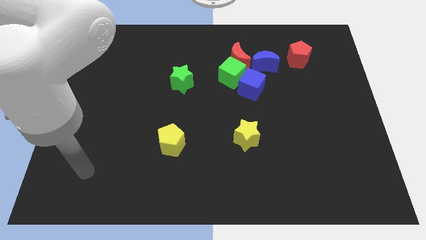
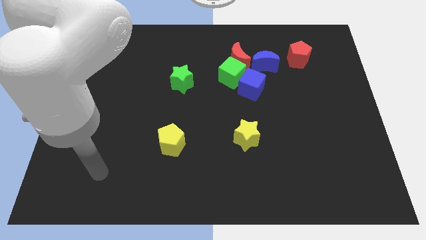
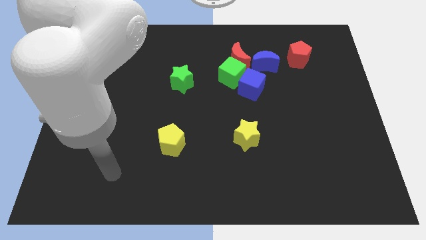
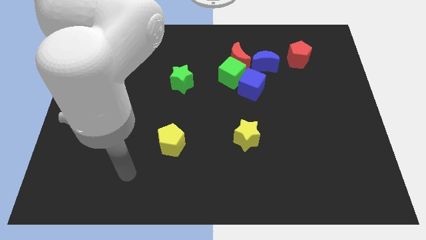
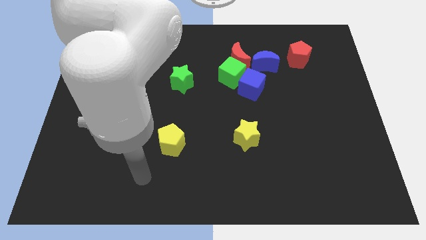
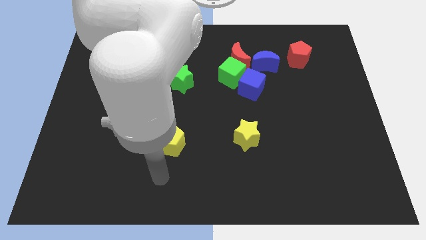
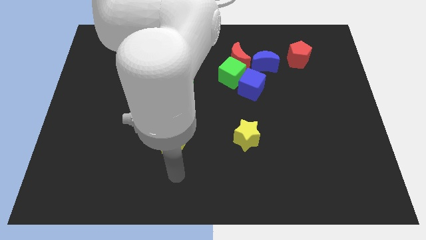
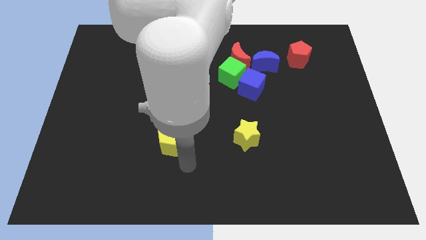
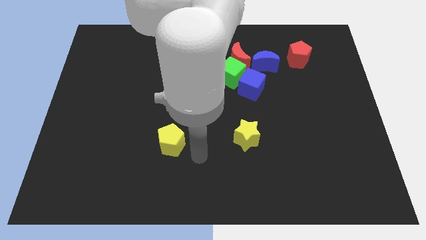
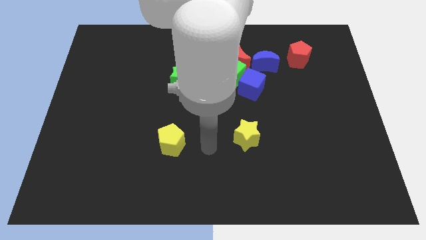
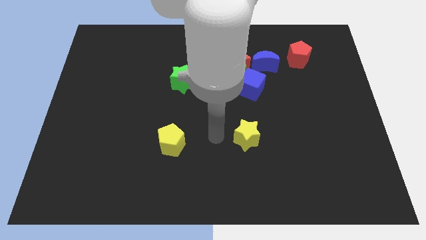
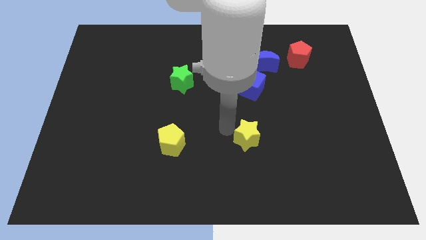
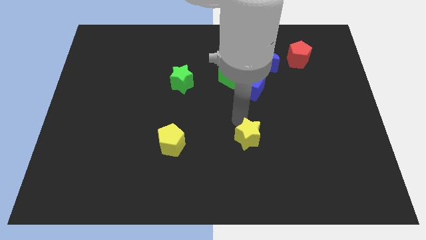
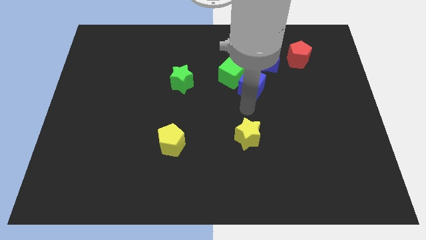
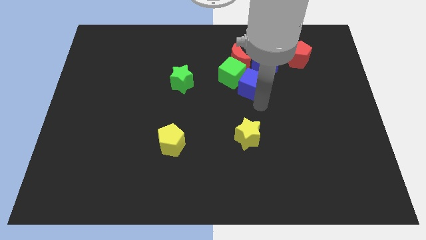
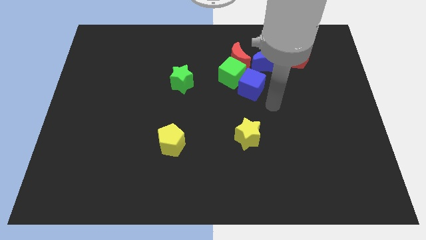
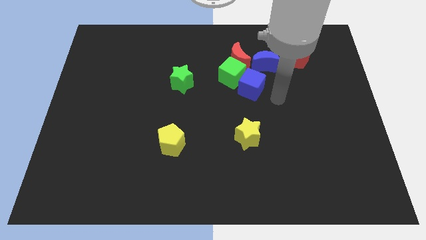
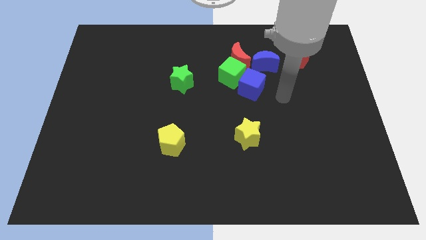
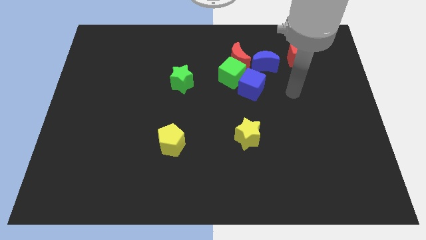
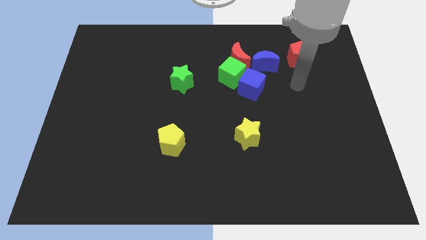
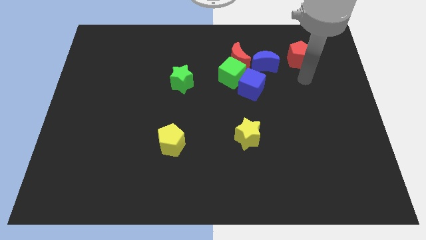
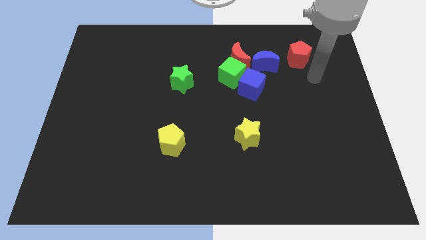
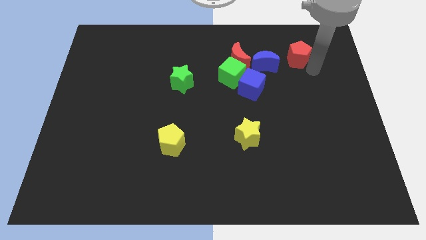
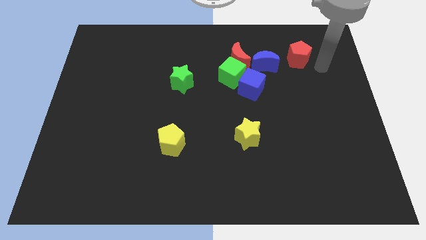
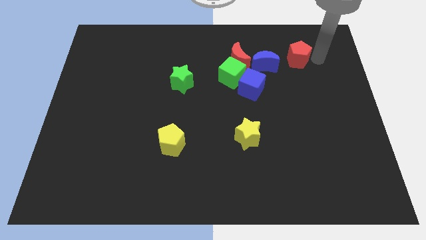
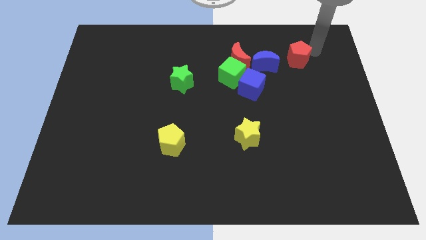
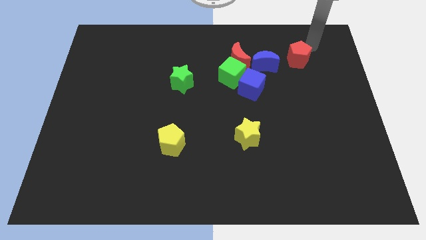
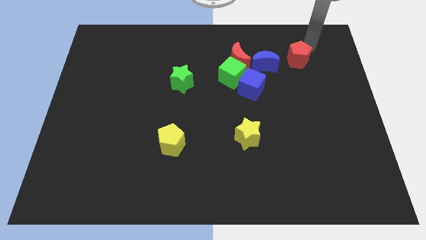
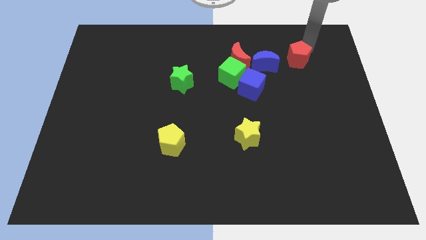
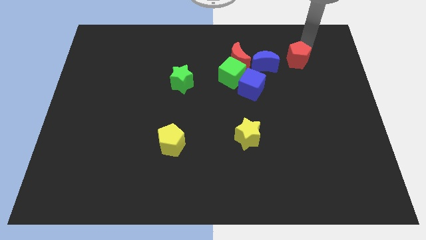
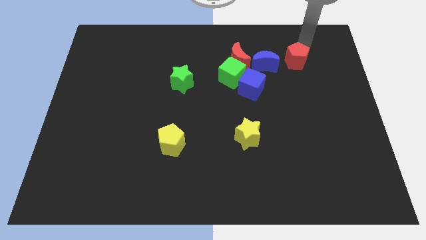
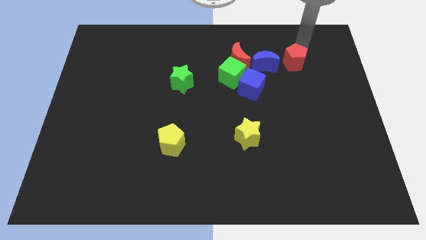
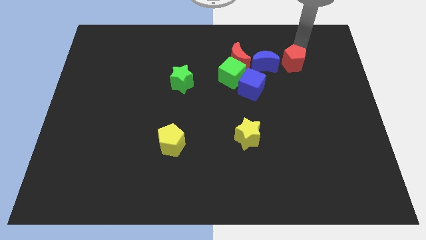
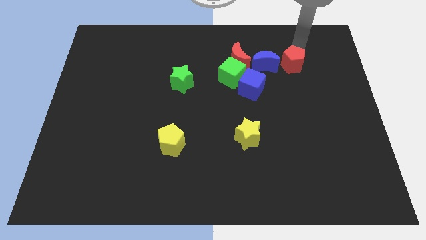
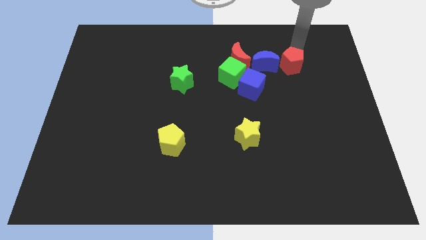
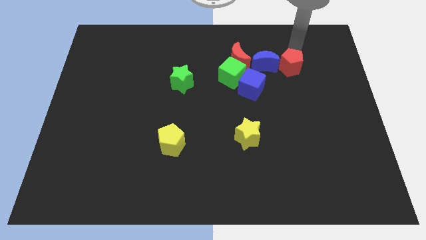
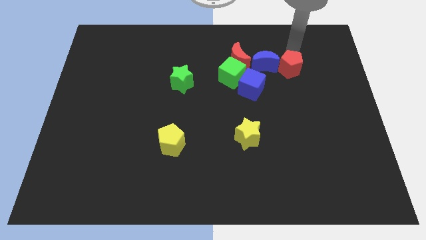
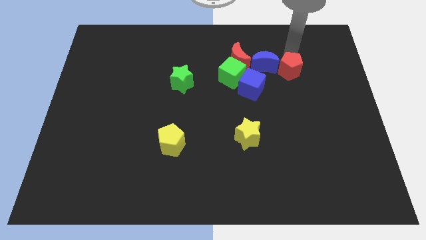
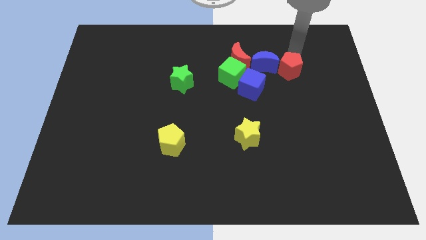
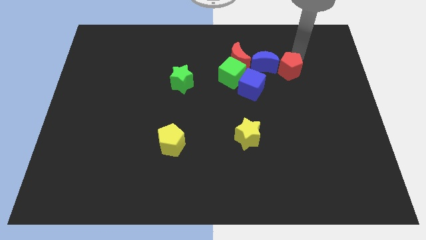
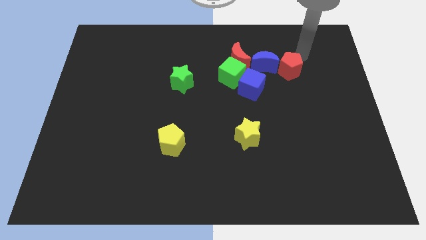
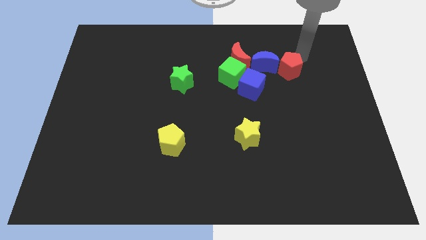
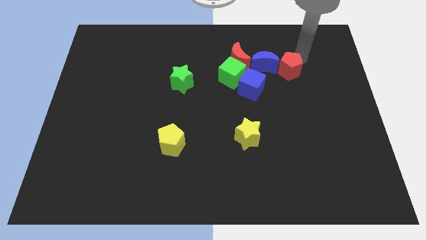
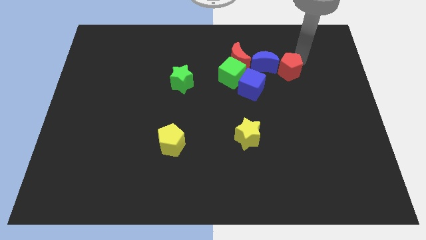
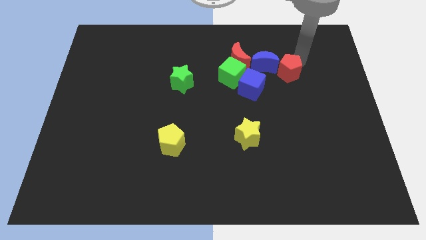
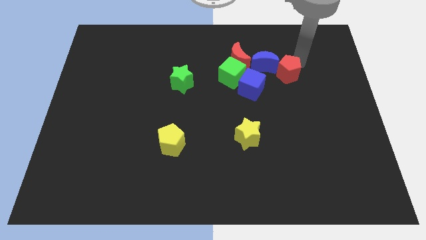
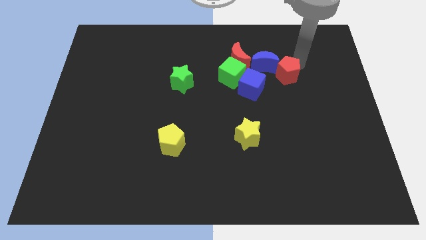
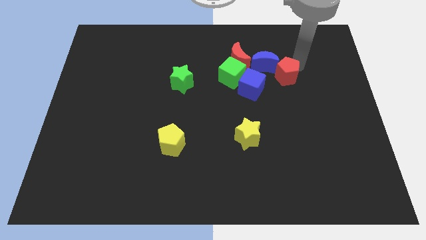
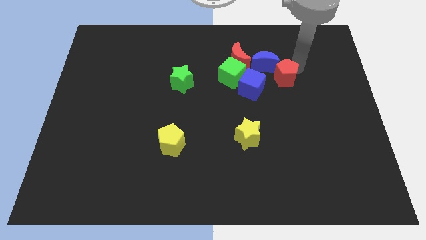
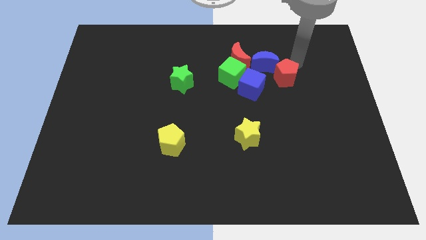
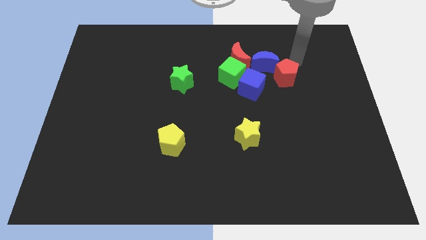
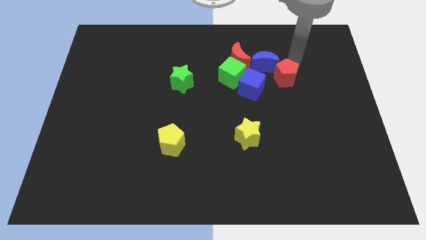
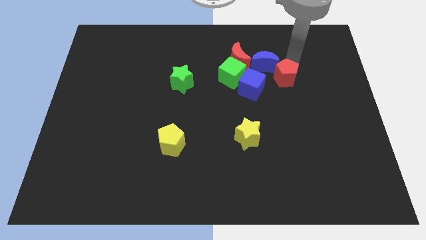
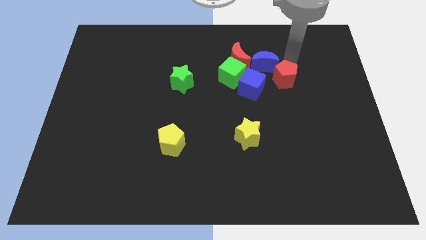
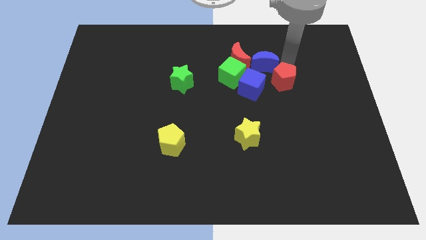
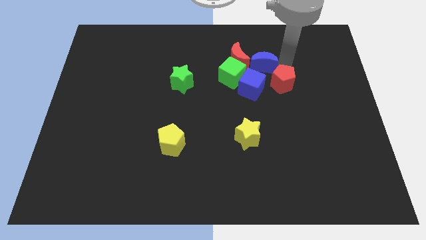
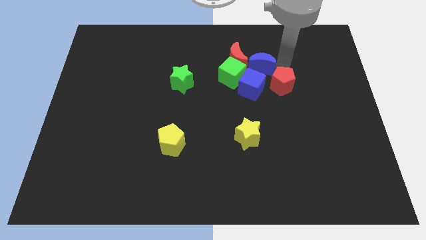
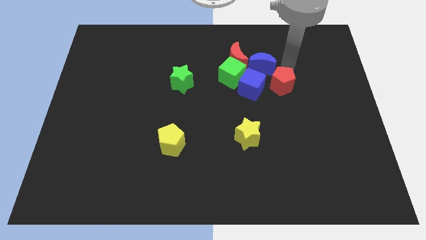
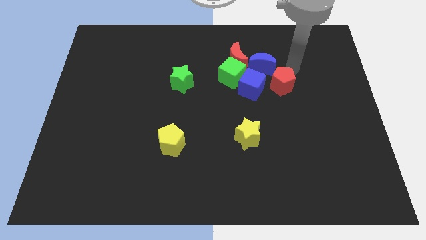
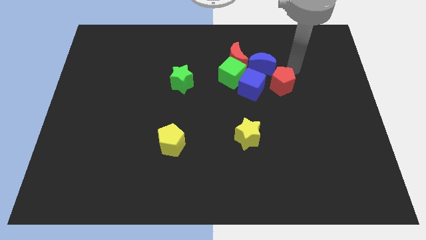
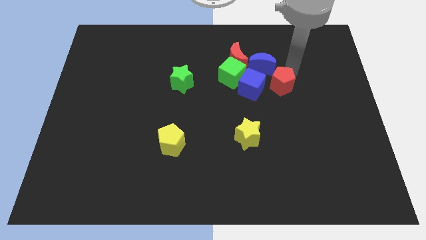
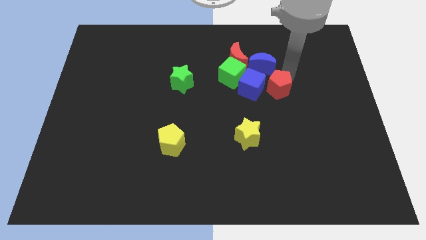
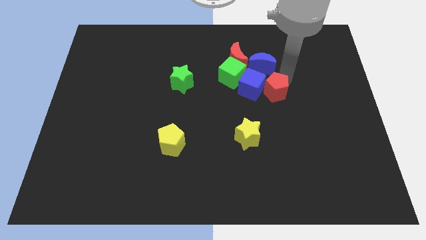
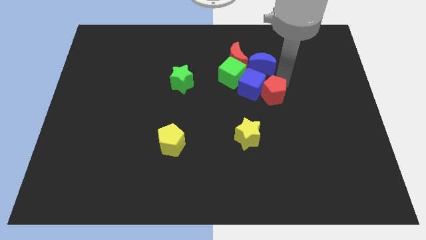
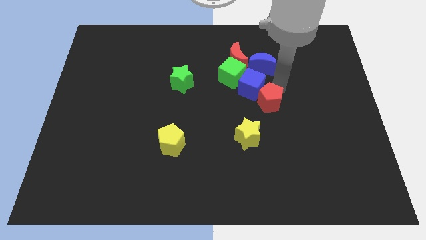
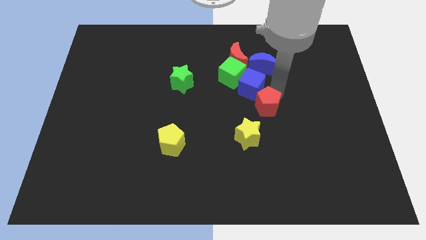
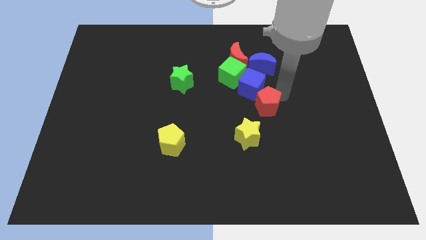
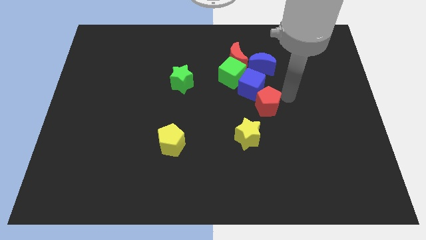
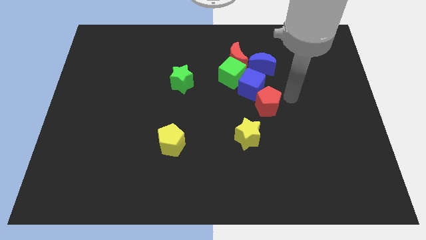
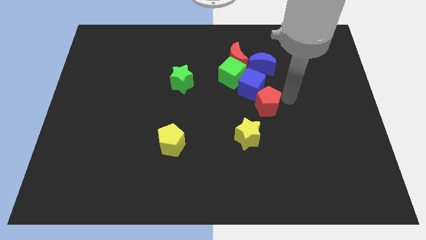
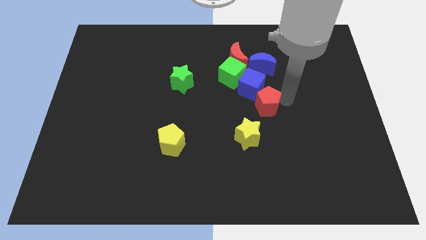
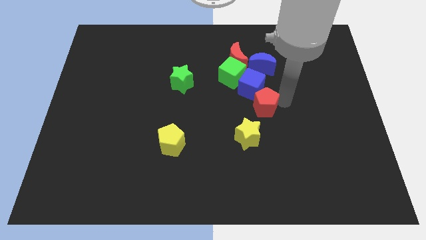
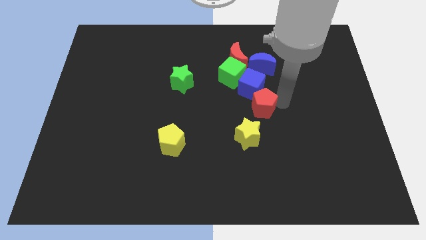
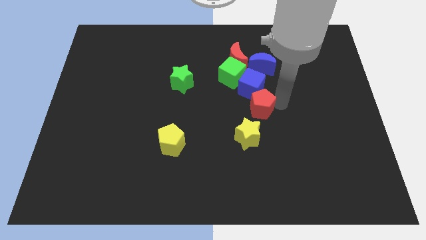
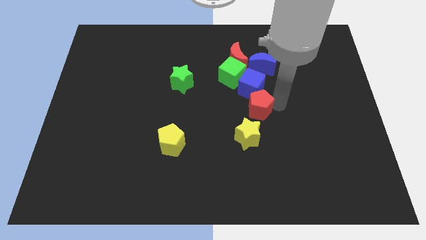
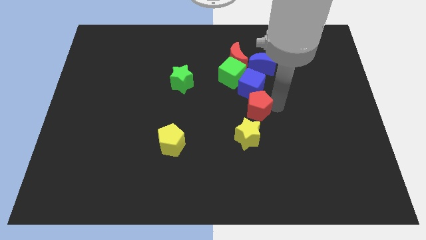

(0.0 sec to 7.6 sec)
push the red pentagon down and left

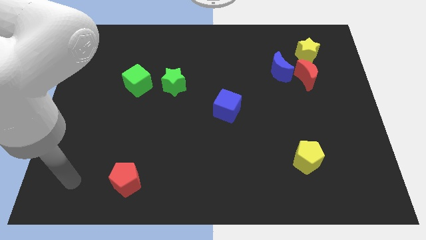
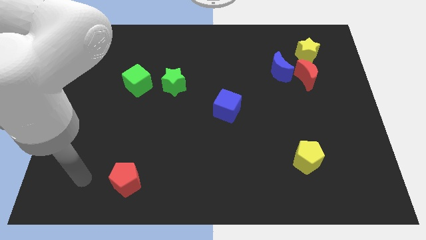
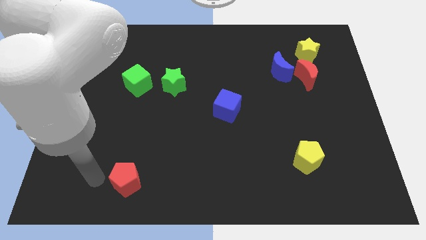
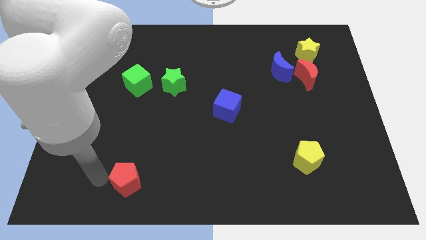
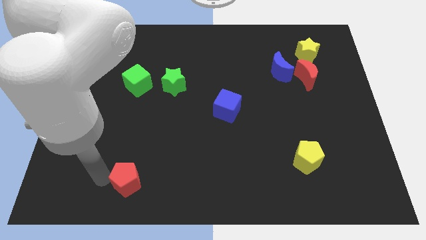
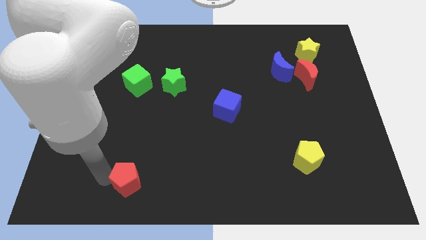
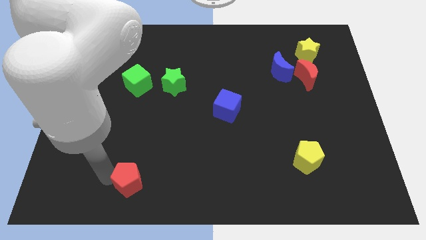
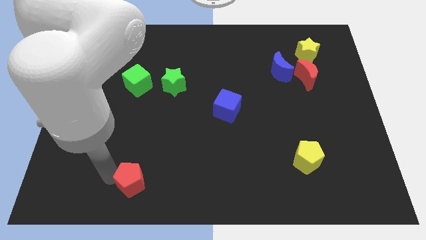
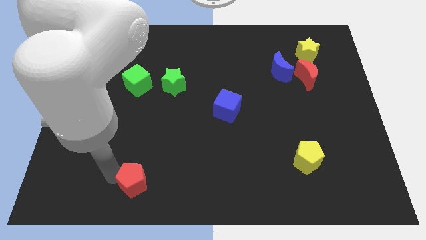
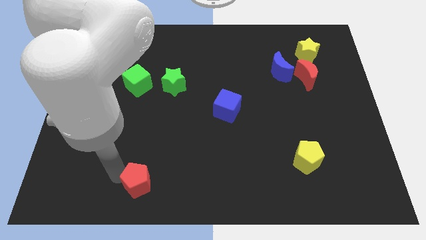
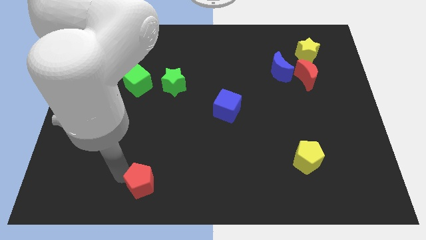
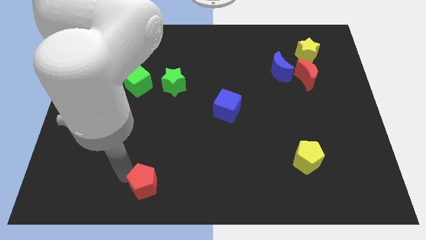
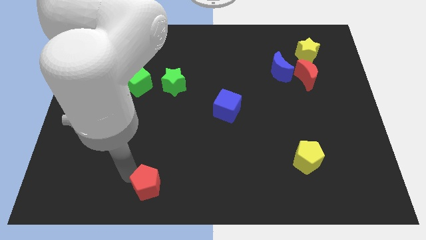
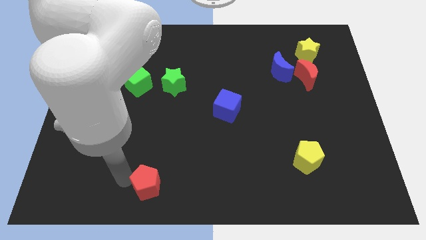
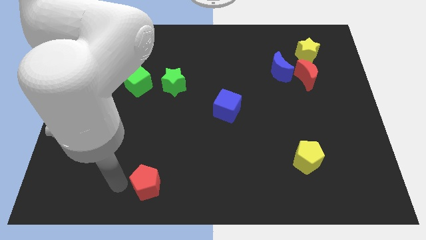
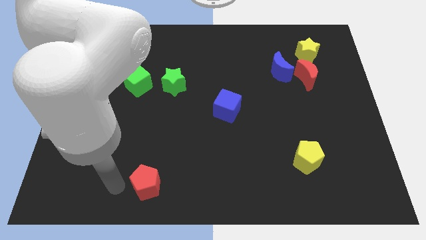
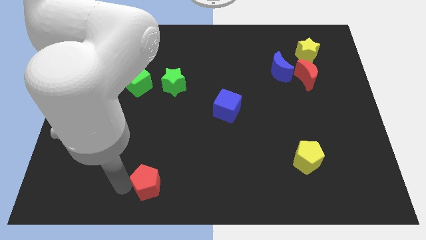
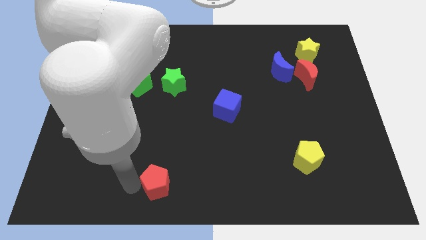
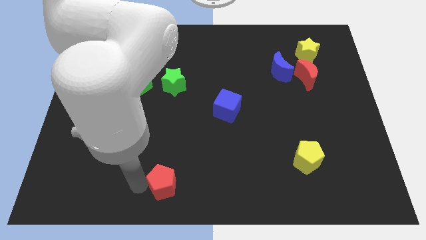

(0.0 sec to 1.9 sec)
slide the red pentagon to the right somewhat
